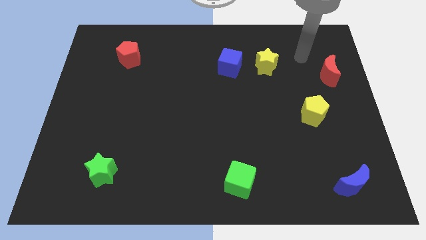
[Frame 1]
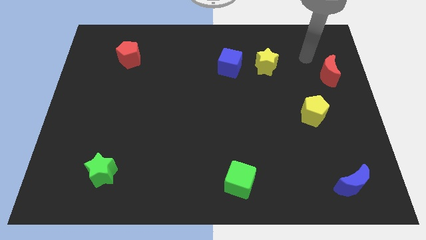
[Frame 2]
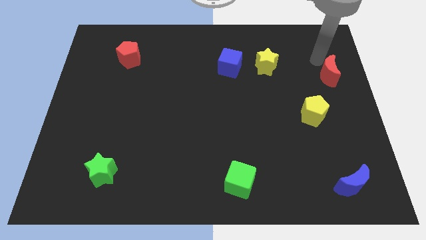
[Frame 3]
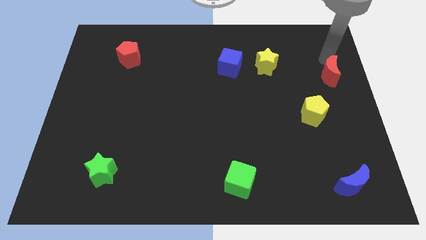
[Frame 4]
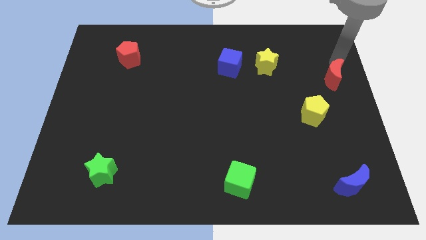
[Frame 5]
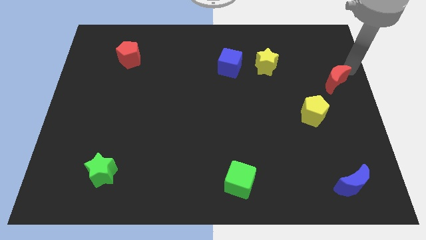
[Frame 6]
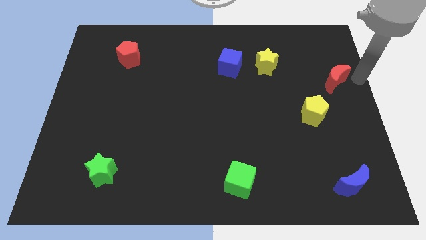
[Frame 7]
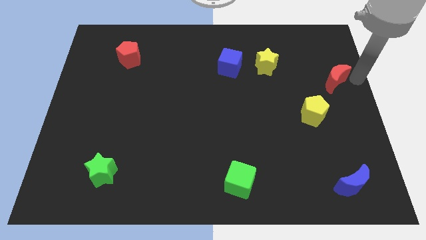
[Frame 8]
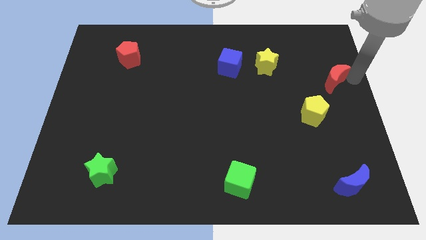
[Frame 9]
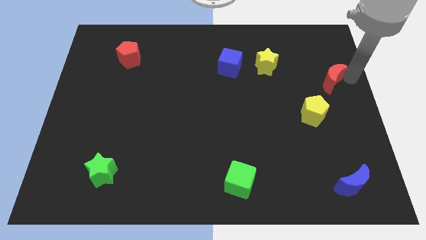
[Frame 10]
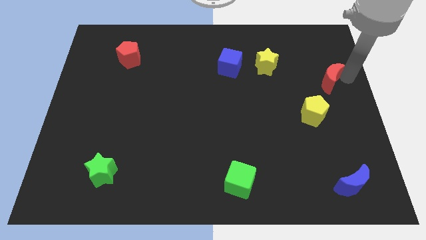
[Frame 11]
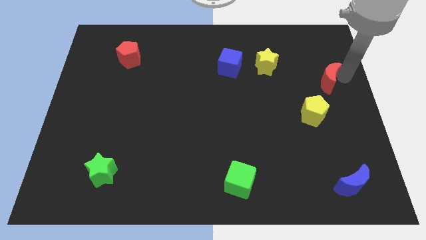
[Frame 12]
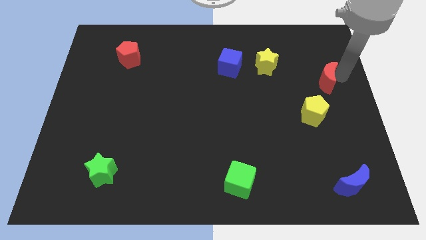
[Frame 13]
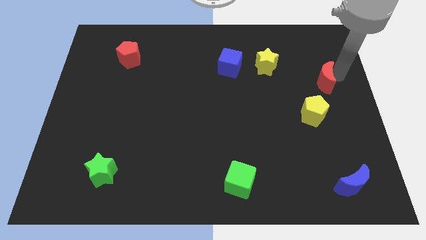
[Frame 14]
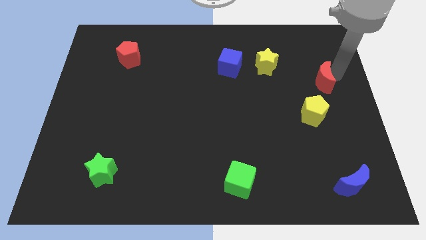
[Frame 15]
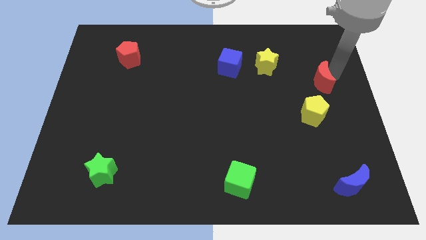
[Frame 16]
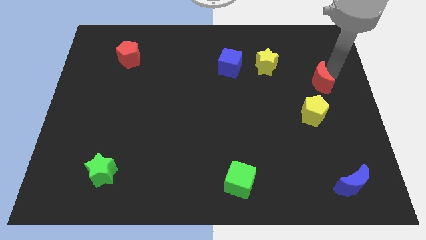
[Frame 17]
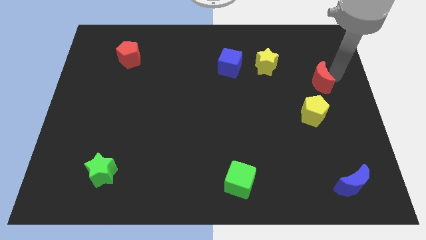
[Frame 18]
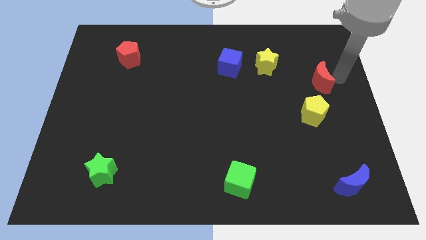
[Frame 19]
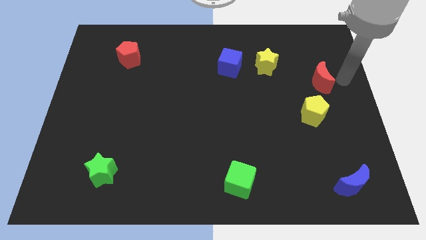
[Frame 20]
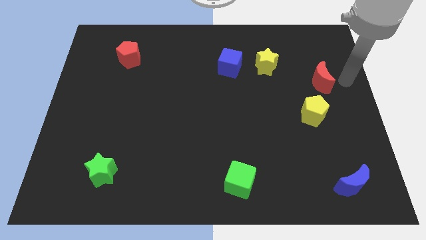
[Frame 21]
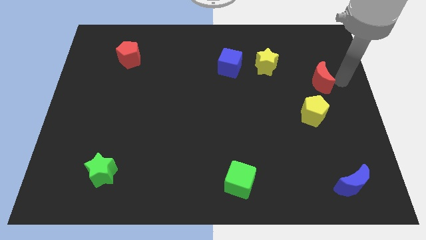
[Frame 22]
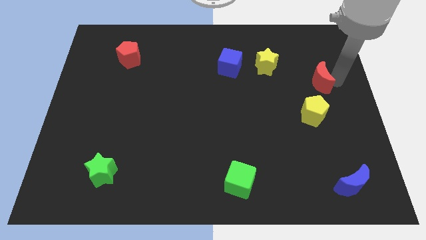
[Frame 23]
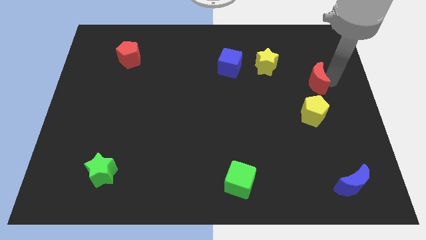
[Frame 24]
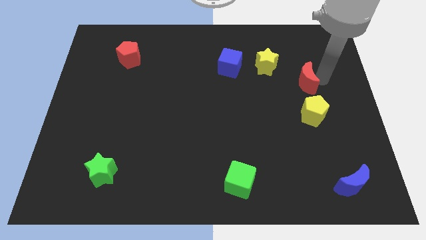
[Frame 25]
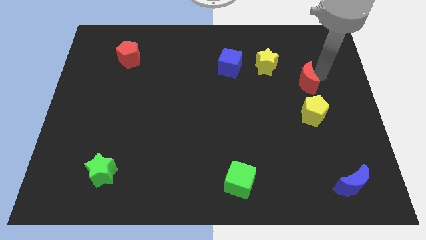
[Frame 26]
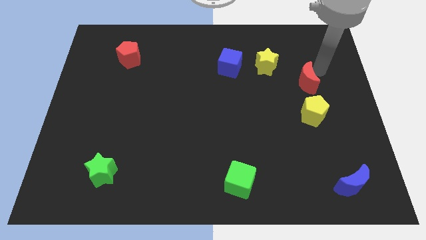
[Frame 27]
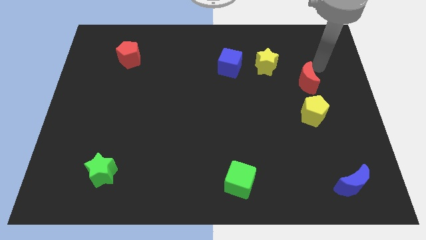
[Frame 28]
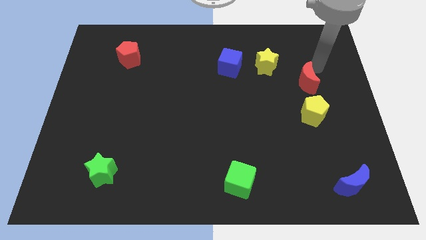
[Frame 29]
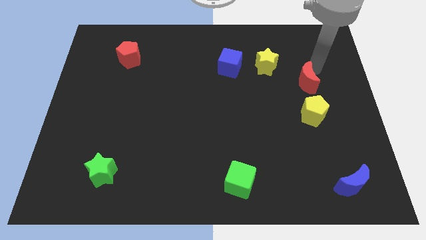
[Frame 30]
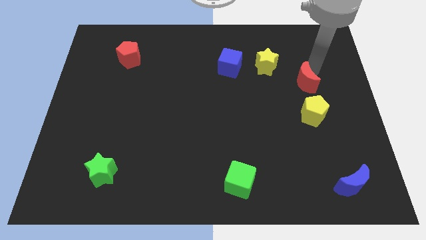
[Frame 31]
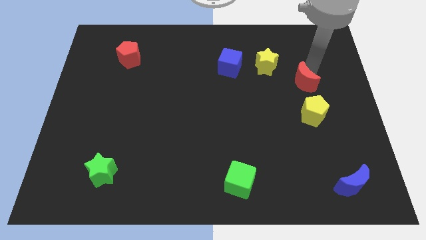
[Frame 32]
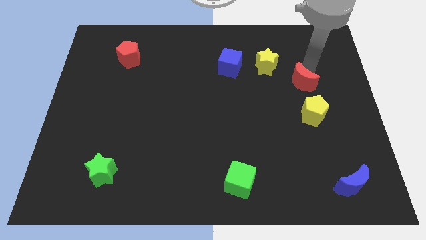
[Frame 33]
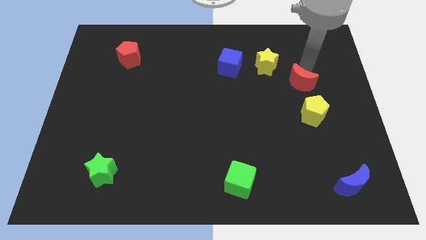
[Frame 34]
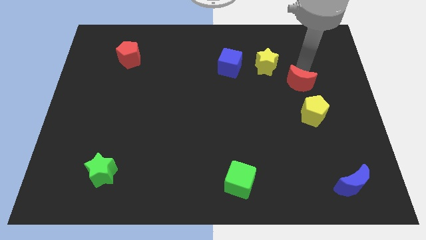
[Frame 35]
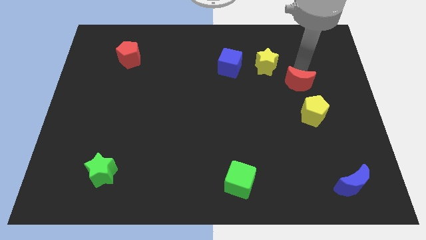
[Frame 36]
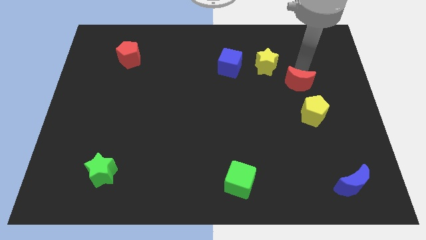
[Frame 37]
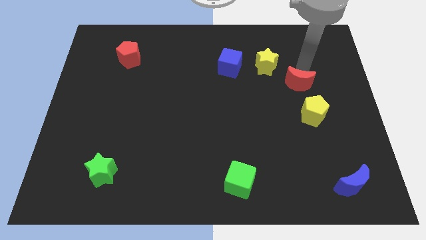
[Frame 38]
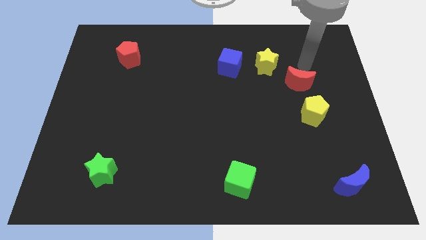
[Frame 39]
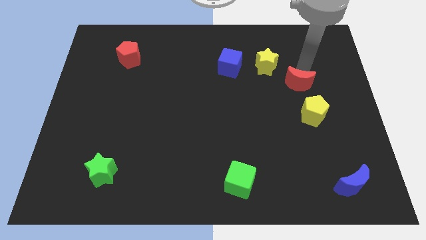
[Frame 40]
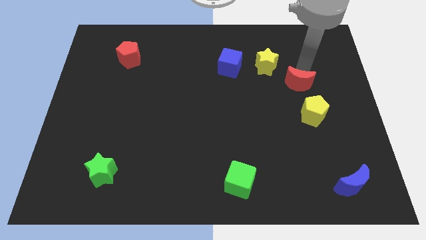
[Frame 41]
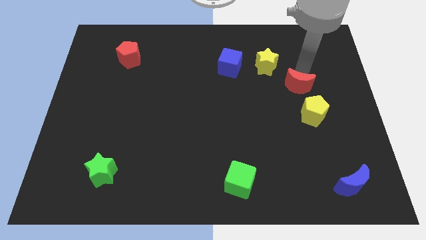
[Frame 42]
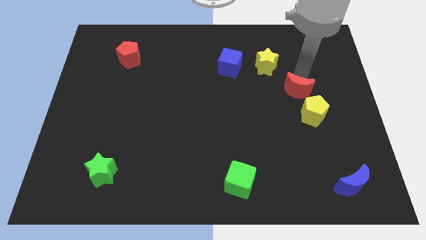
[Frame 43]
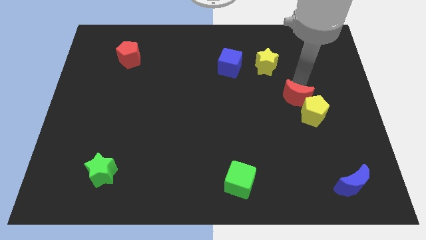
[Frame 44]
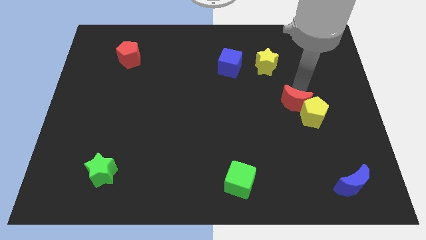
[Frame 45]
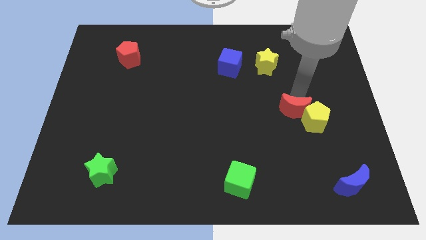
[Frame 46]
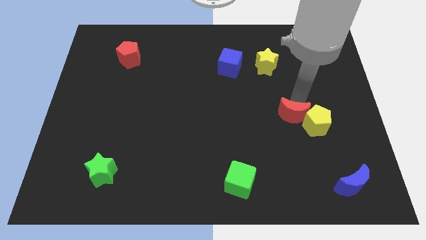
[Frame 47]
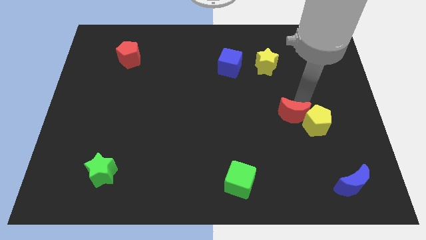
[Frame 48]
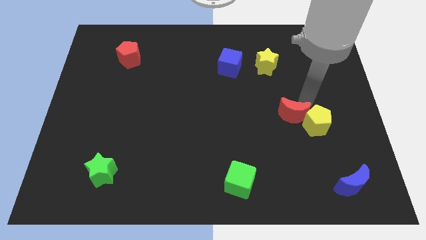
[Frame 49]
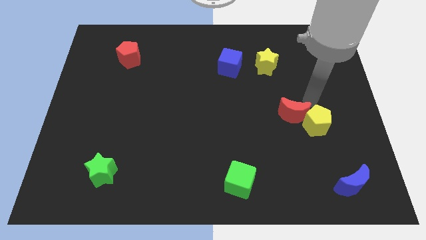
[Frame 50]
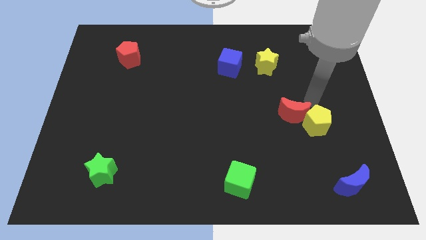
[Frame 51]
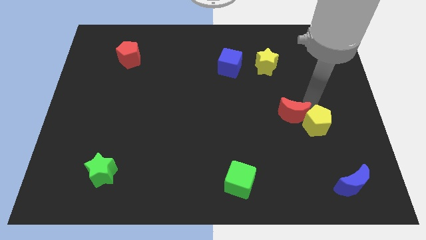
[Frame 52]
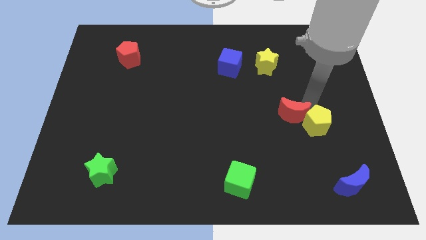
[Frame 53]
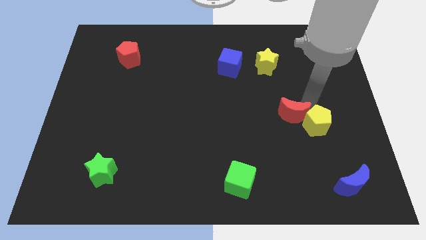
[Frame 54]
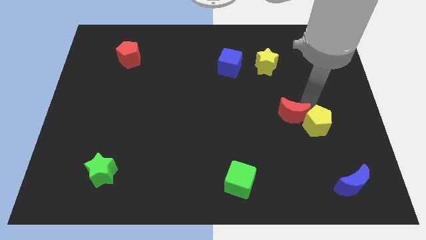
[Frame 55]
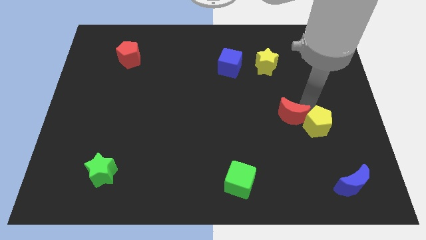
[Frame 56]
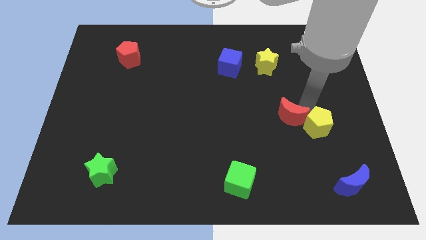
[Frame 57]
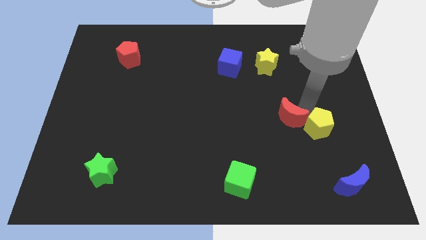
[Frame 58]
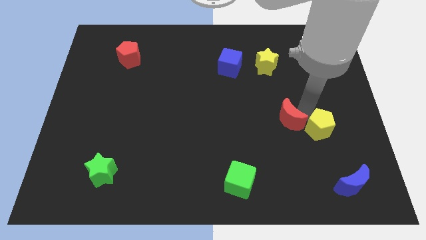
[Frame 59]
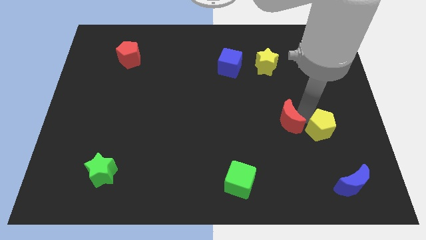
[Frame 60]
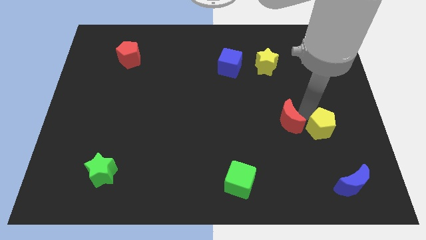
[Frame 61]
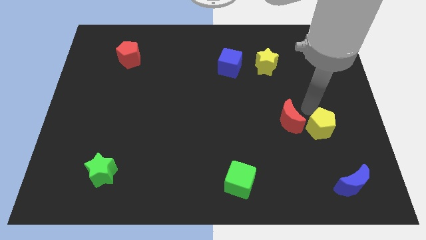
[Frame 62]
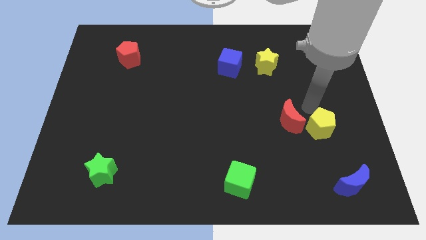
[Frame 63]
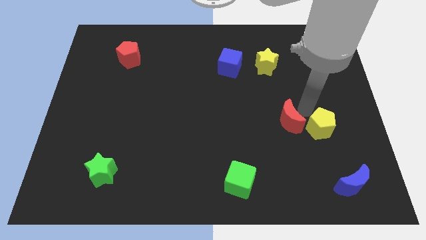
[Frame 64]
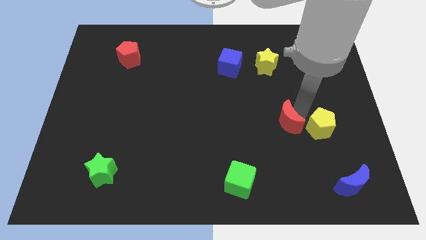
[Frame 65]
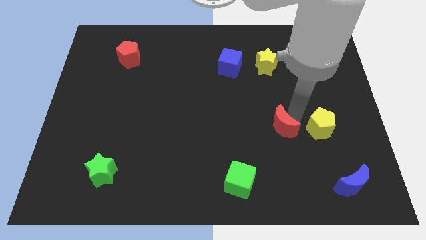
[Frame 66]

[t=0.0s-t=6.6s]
push the red moon diagonally downwards and to the left

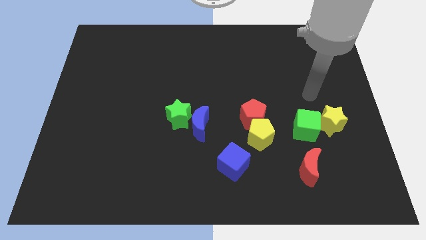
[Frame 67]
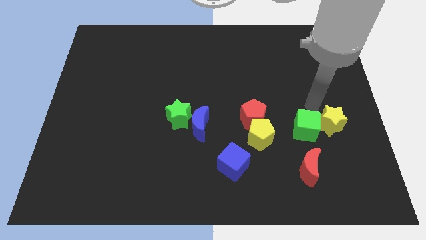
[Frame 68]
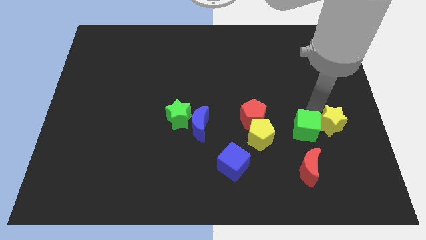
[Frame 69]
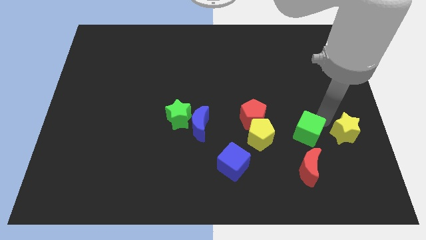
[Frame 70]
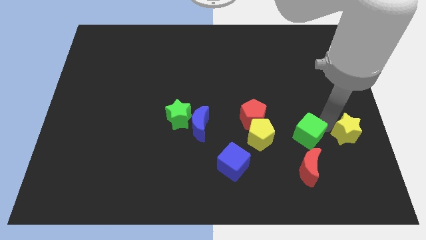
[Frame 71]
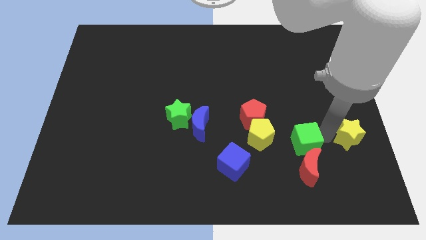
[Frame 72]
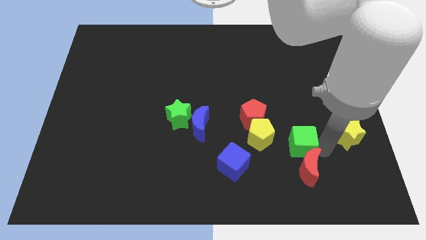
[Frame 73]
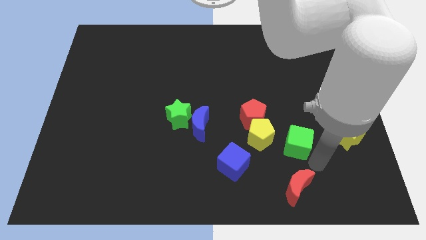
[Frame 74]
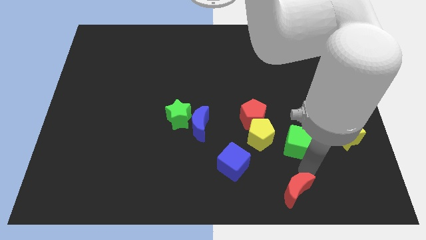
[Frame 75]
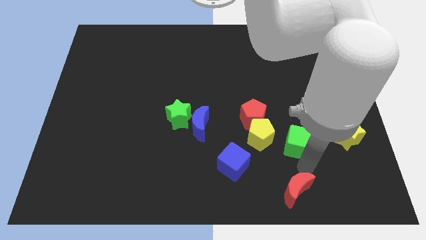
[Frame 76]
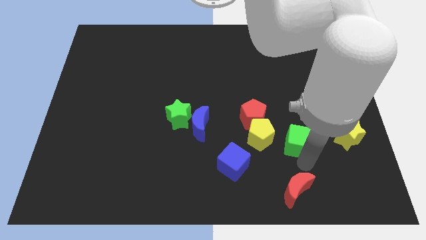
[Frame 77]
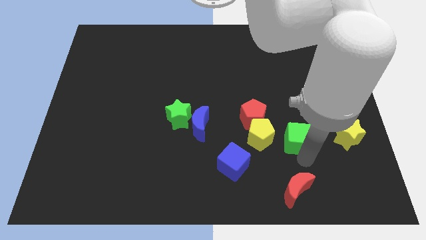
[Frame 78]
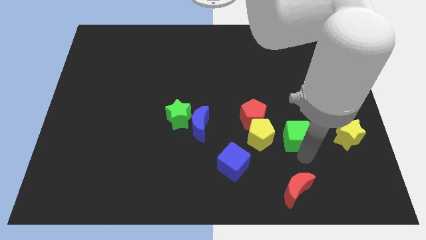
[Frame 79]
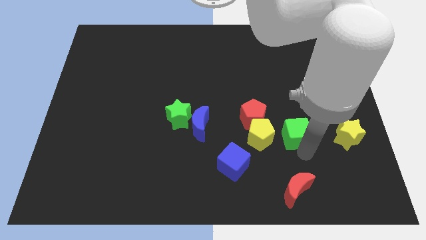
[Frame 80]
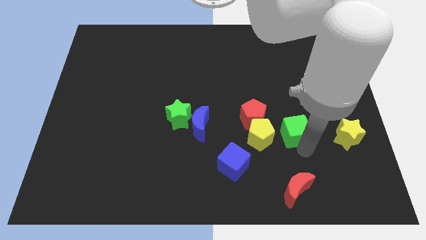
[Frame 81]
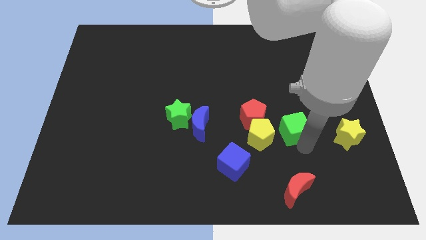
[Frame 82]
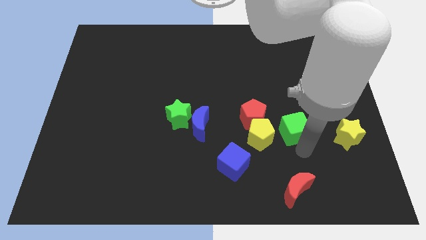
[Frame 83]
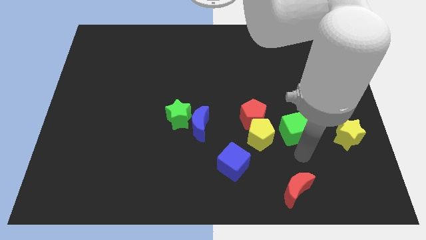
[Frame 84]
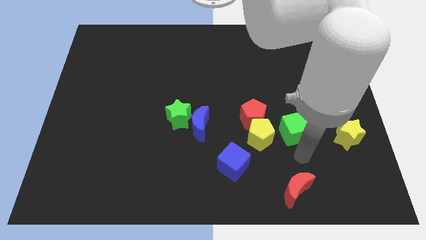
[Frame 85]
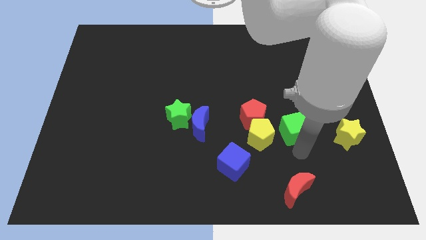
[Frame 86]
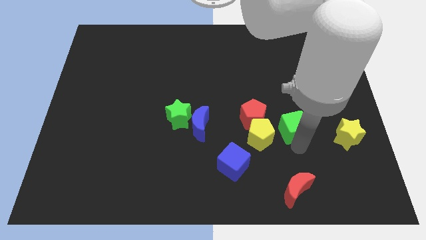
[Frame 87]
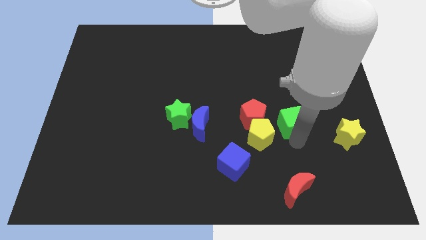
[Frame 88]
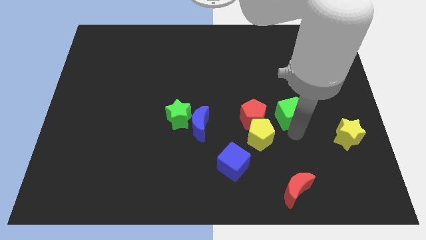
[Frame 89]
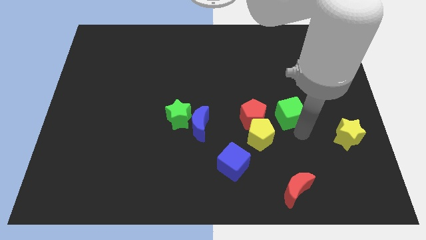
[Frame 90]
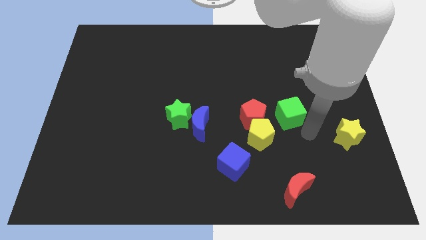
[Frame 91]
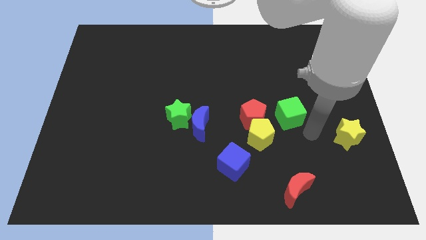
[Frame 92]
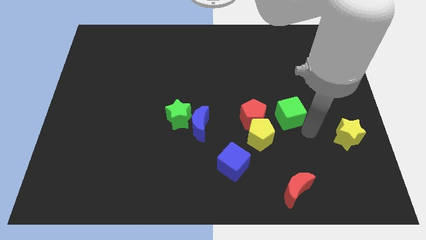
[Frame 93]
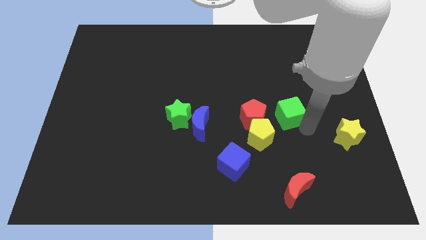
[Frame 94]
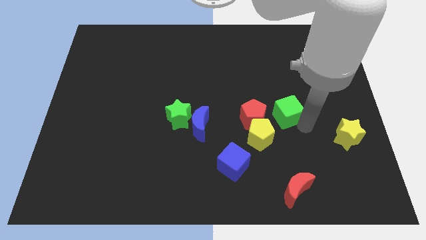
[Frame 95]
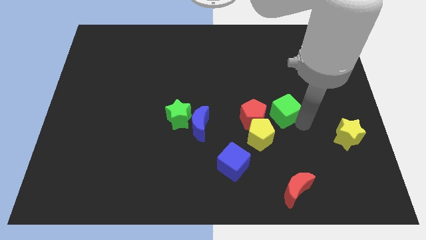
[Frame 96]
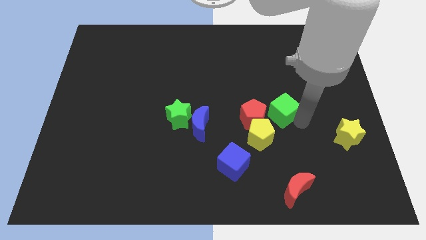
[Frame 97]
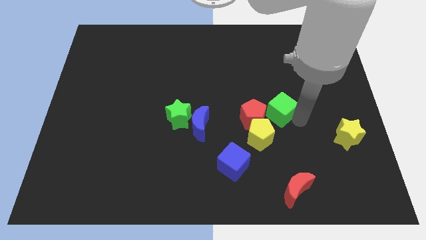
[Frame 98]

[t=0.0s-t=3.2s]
slightly slide the green cube up and to the left diagonally
